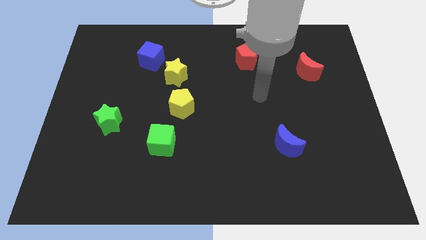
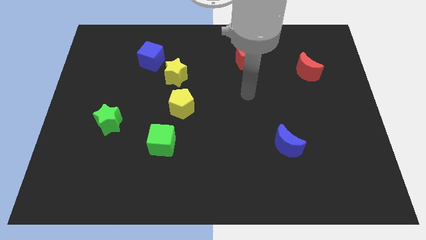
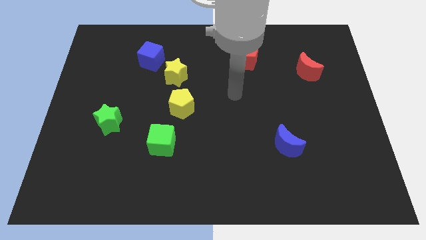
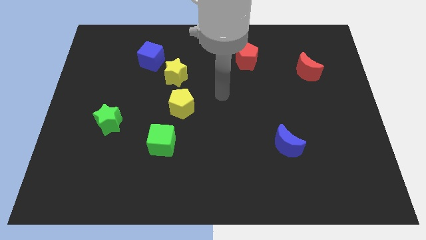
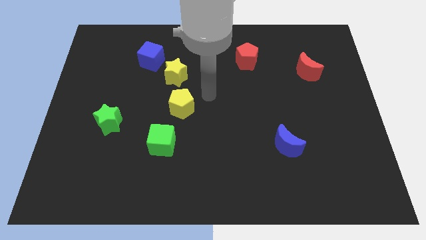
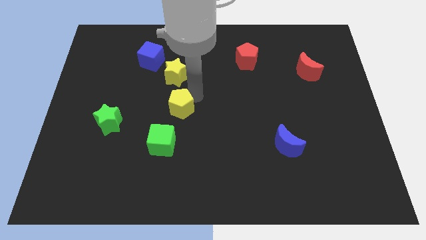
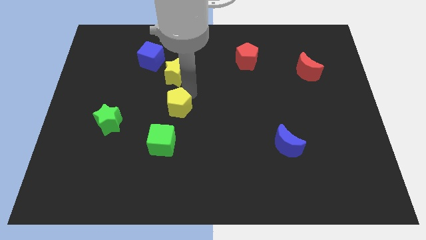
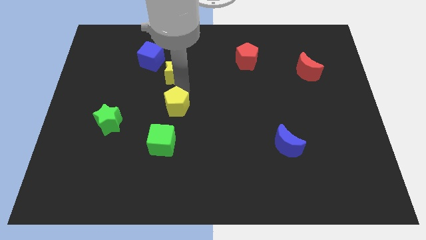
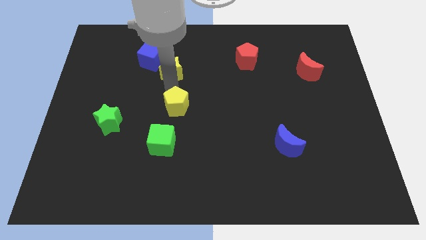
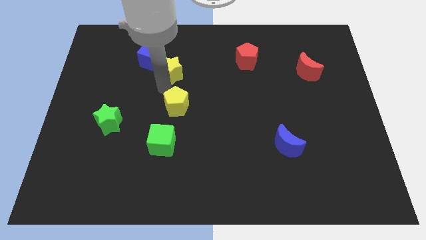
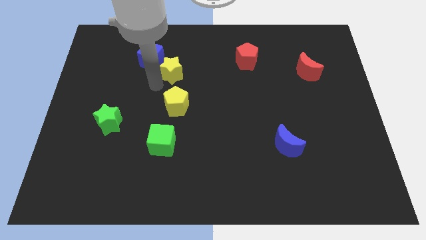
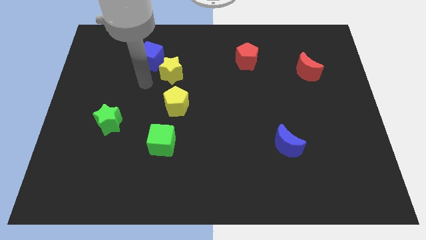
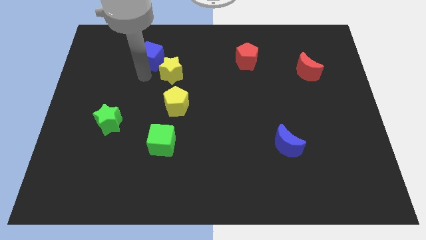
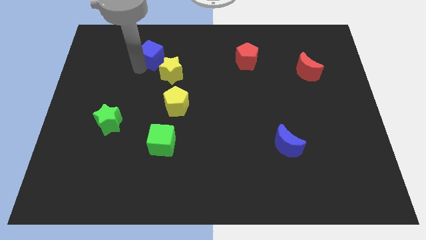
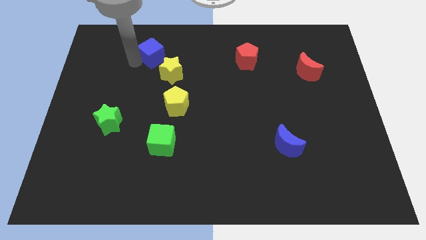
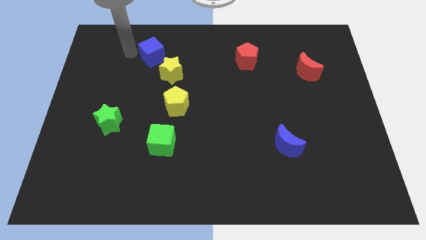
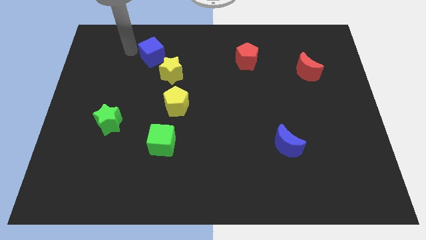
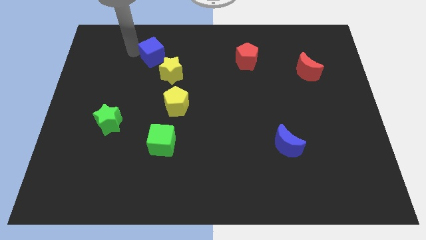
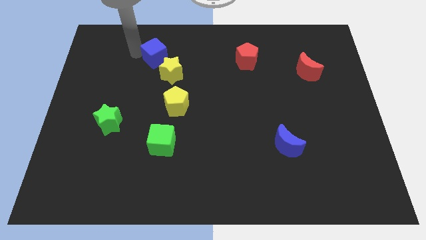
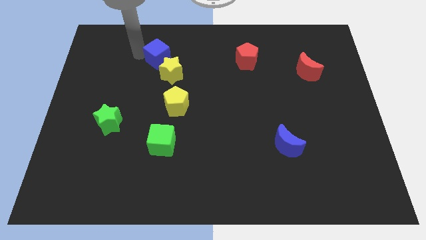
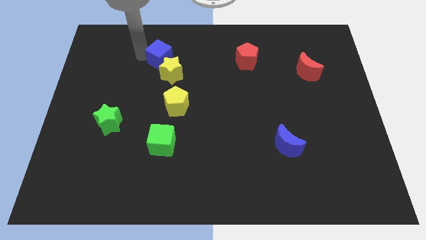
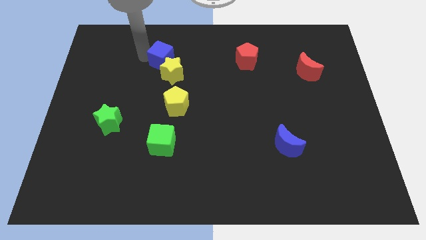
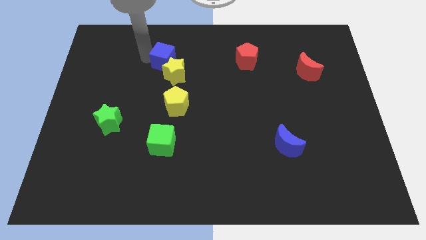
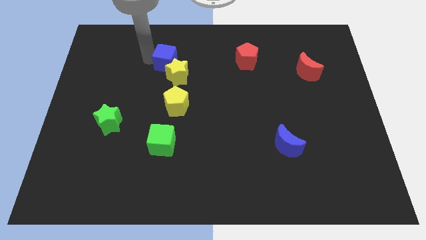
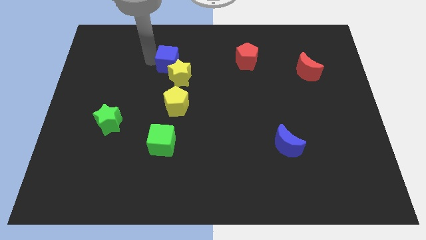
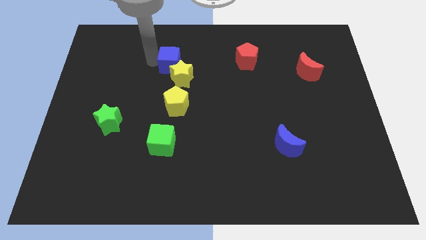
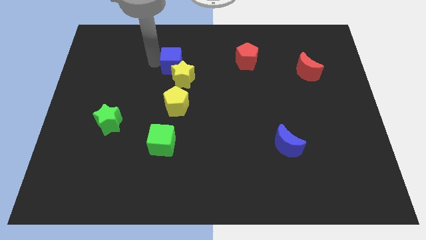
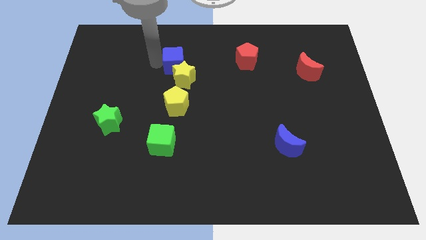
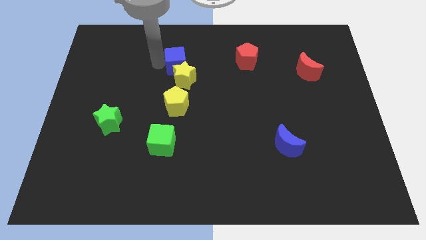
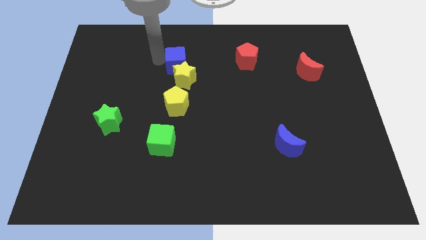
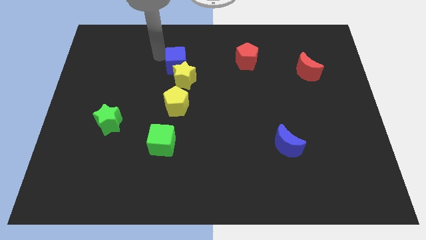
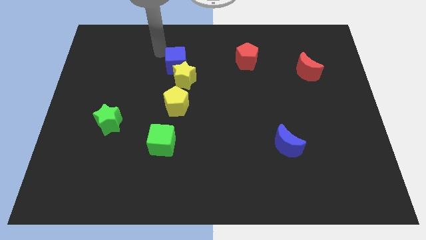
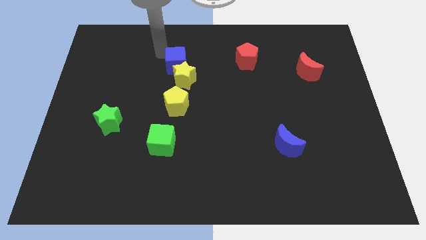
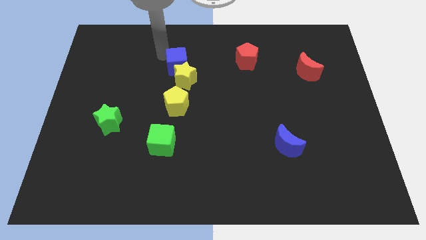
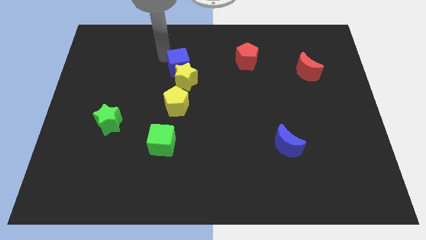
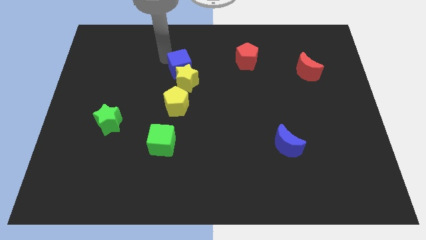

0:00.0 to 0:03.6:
move the blue cube a bit diagonally down and right

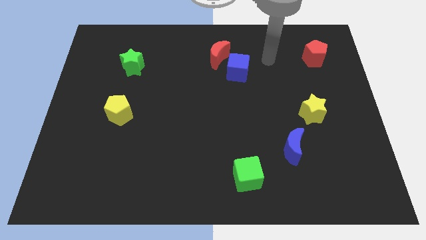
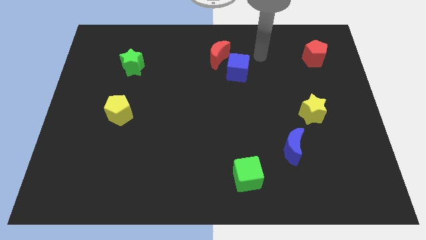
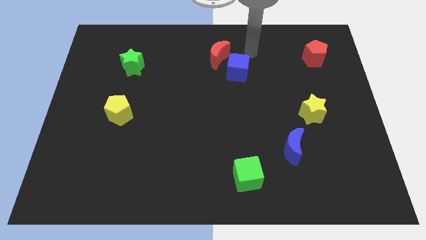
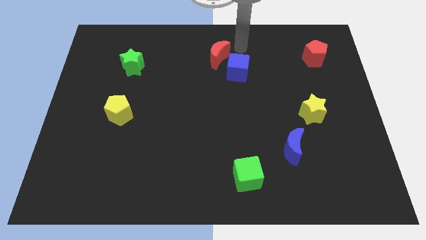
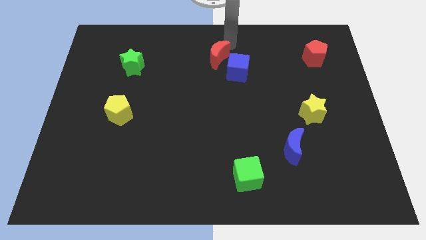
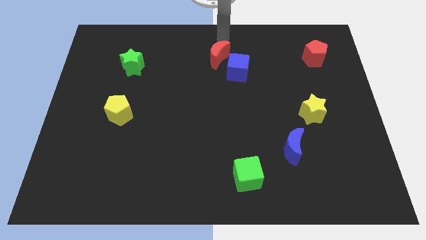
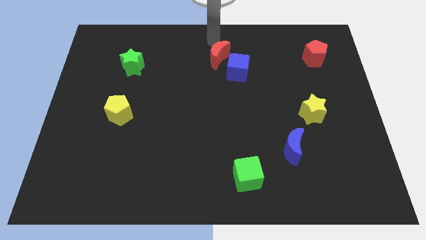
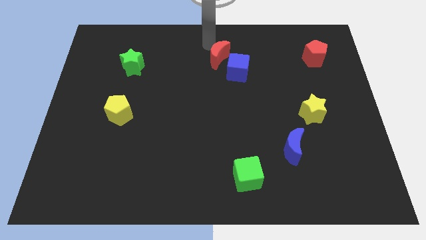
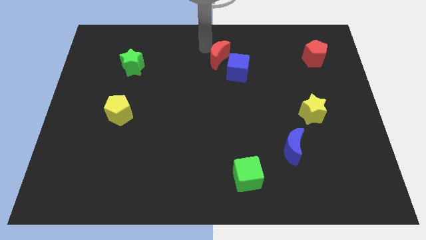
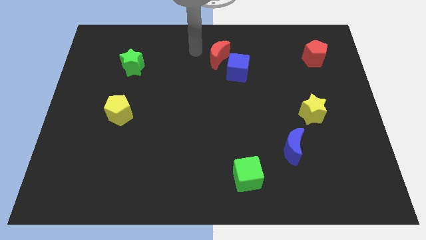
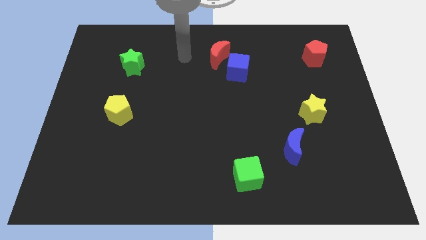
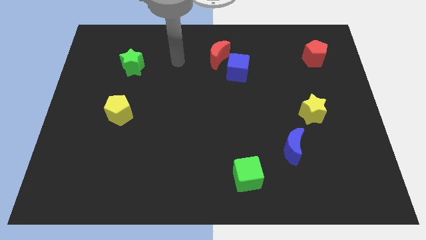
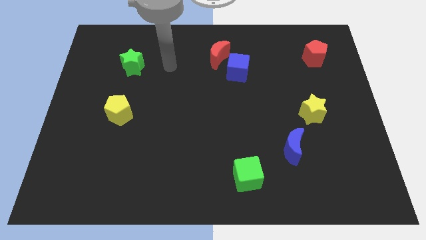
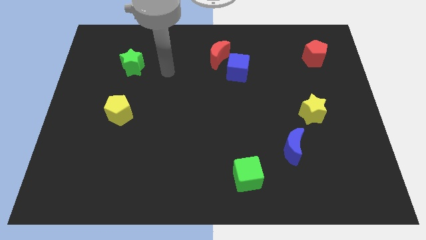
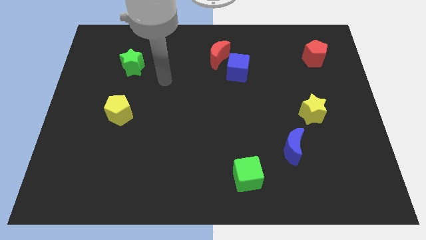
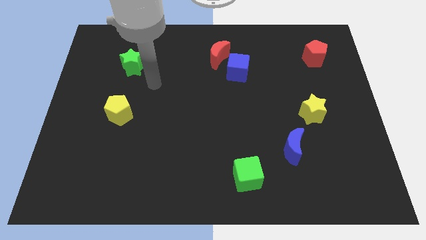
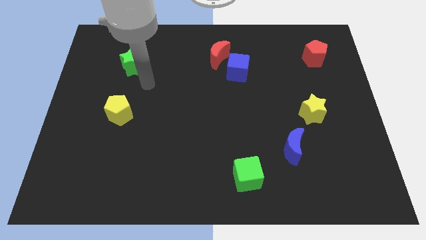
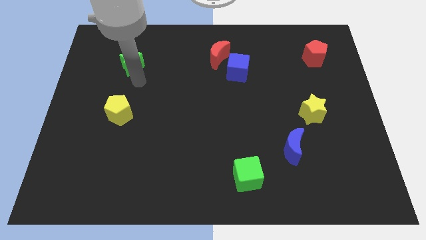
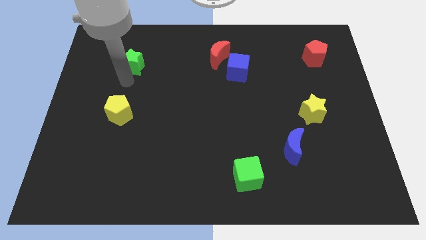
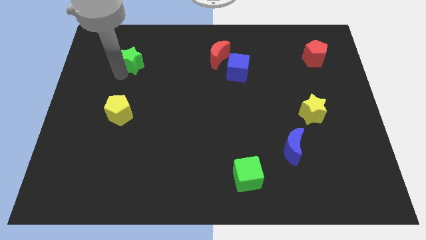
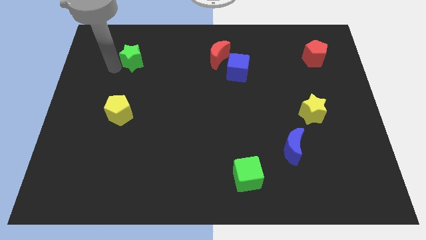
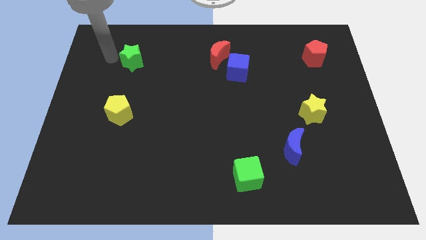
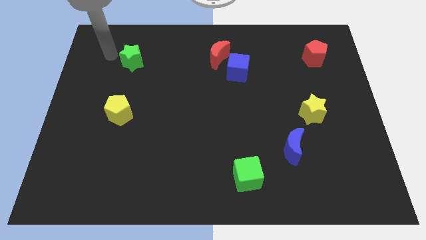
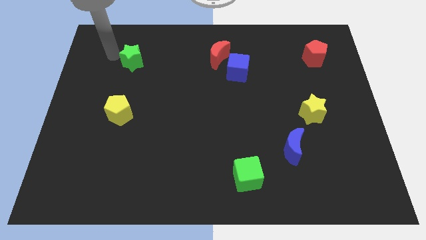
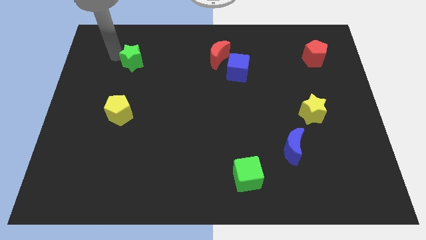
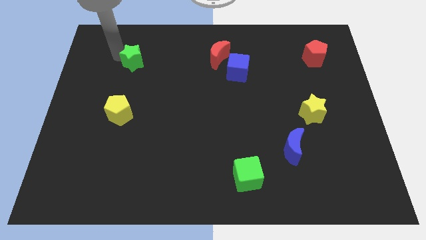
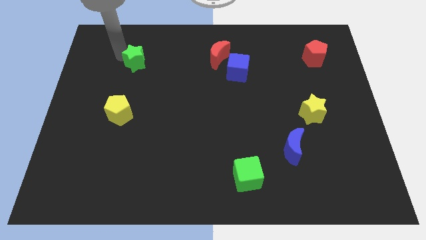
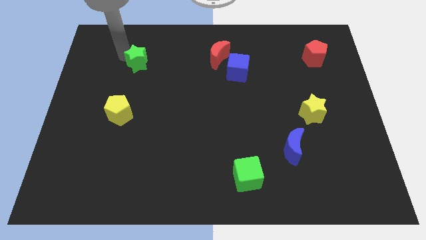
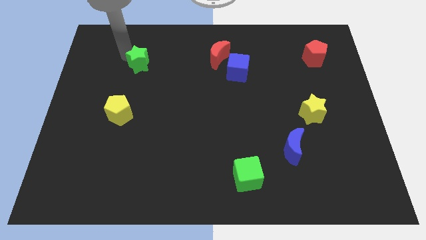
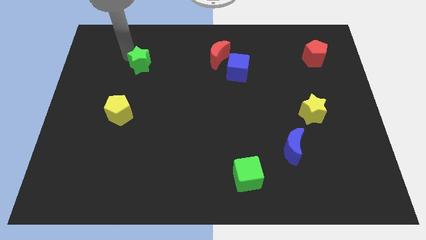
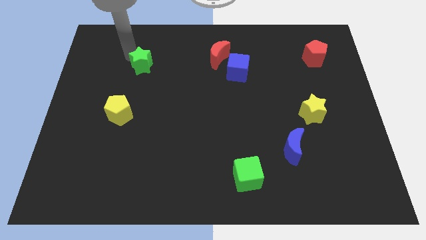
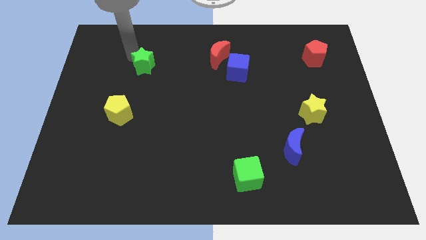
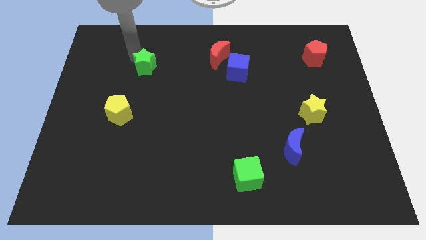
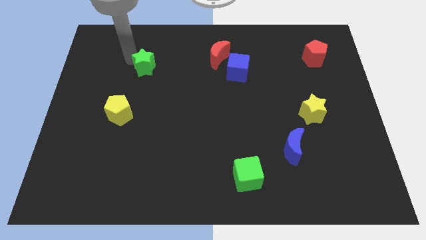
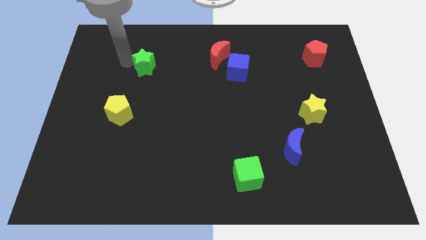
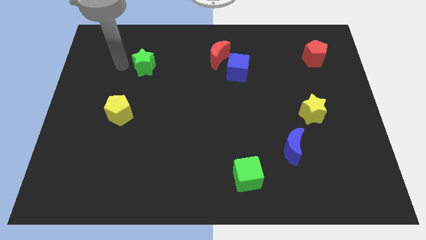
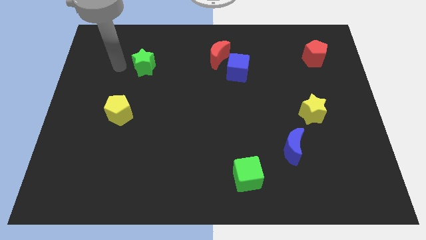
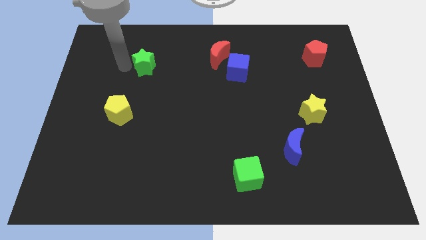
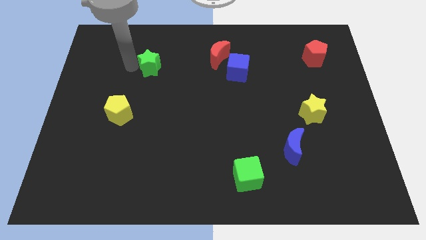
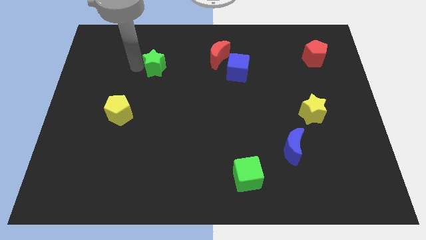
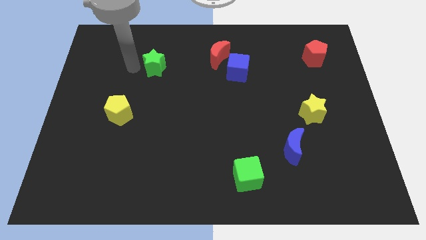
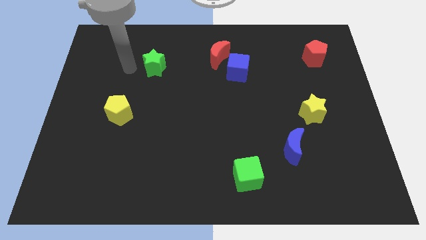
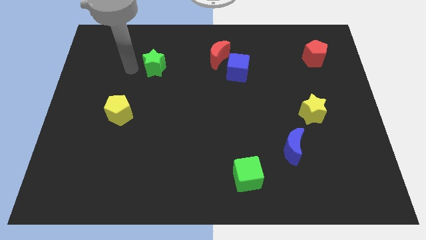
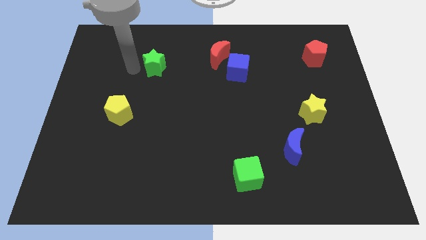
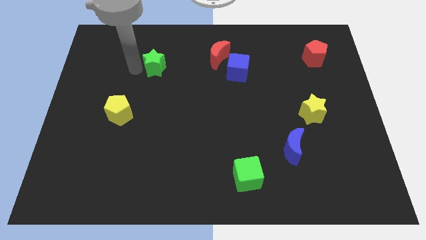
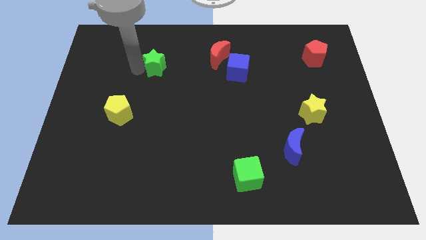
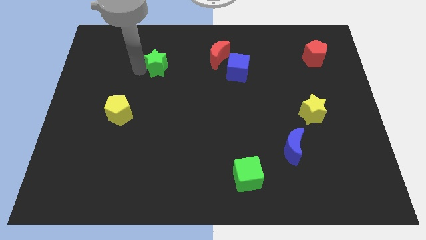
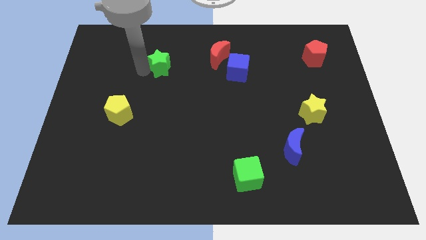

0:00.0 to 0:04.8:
move the green star to the right a bit

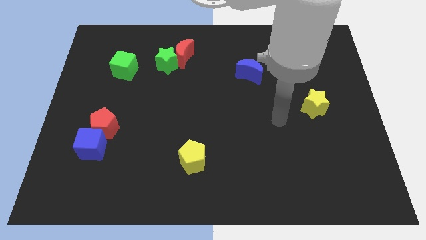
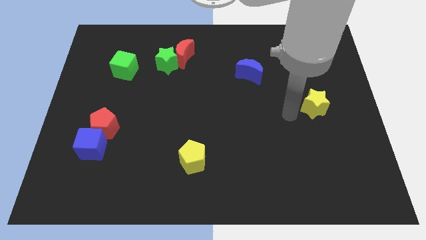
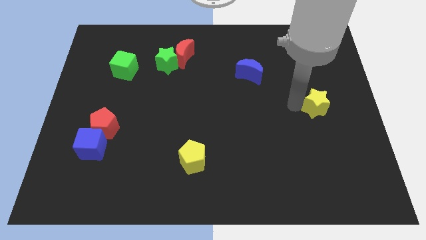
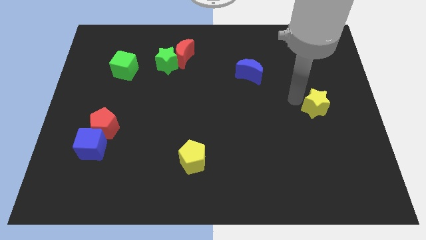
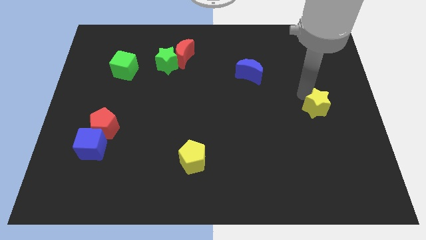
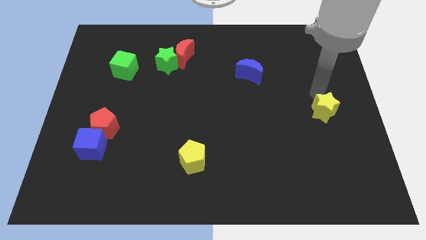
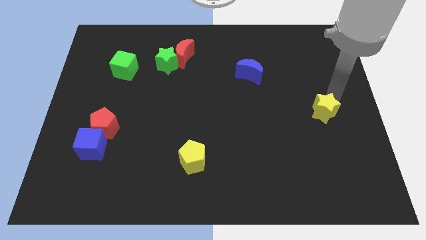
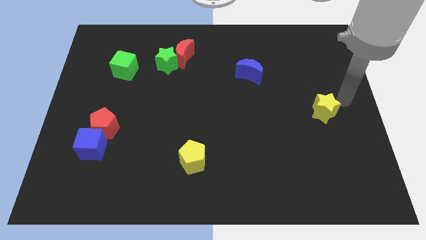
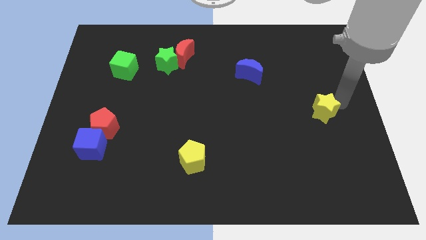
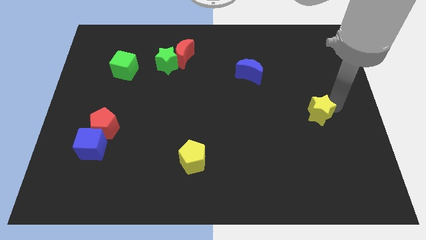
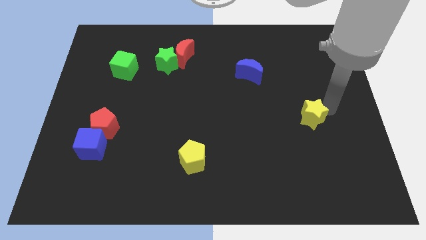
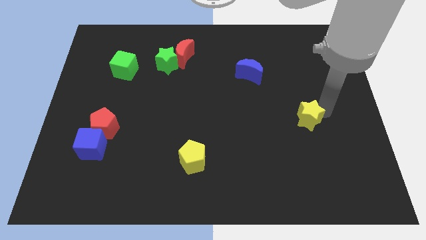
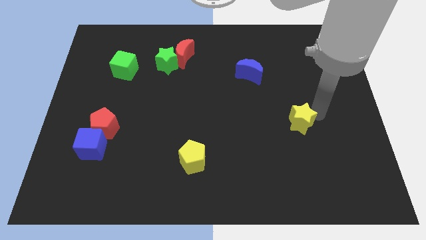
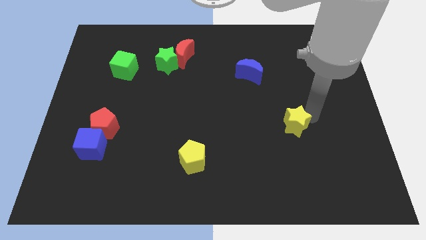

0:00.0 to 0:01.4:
slide the yellow star down and then to the left slightly
